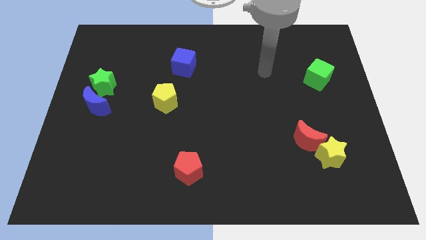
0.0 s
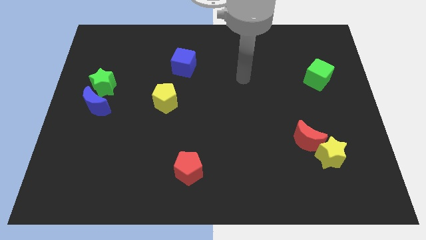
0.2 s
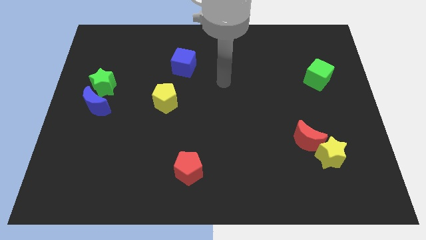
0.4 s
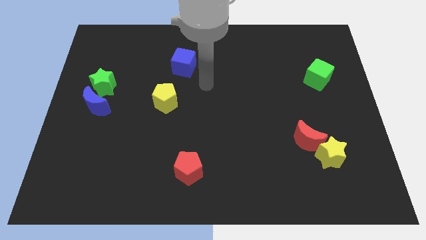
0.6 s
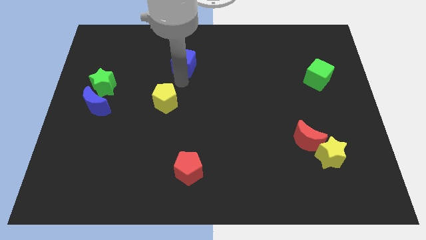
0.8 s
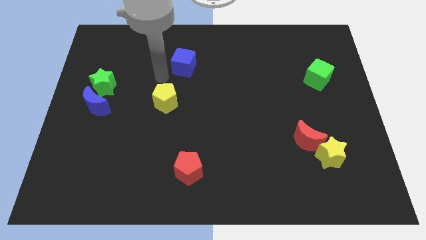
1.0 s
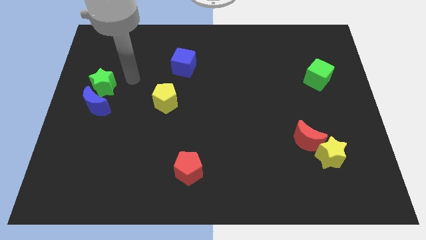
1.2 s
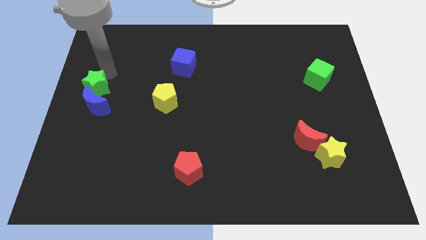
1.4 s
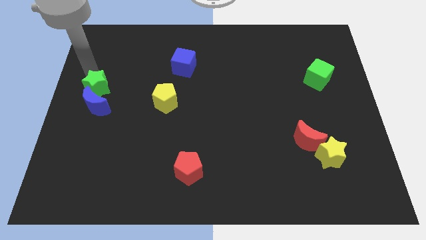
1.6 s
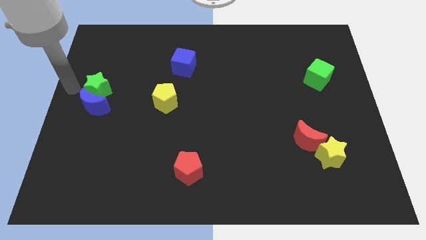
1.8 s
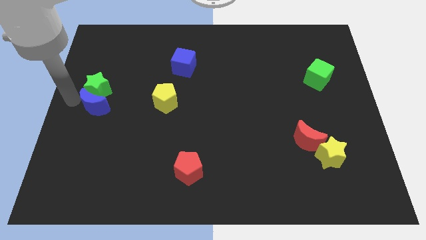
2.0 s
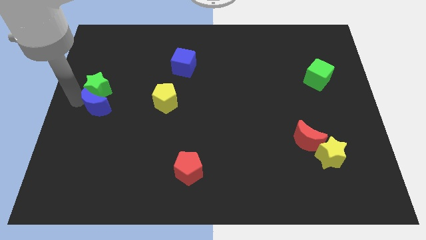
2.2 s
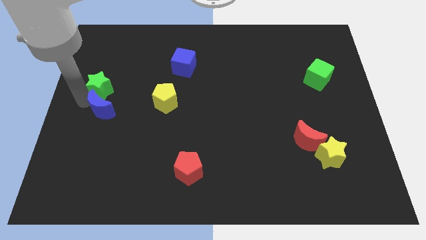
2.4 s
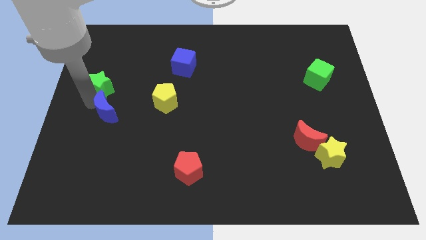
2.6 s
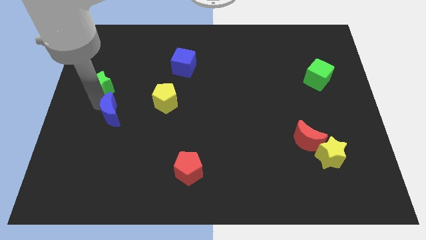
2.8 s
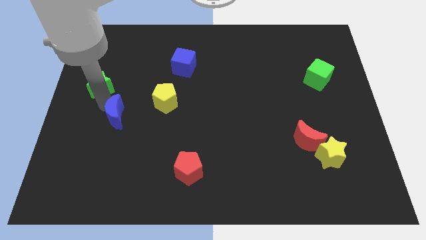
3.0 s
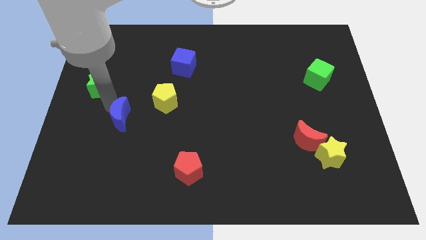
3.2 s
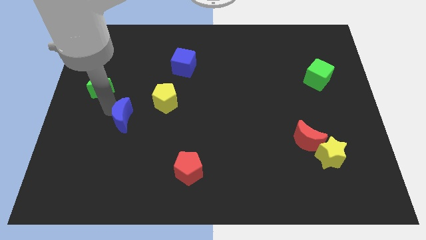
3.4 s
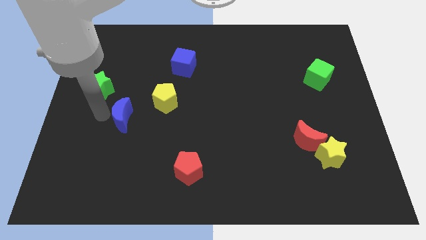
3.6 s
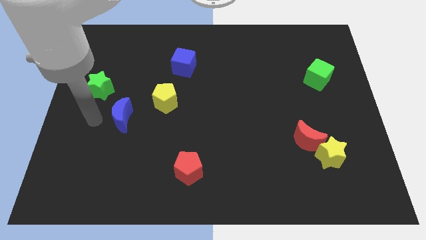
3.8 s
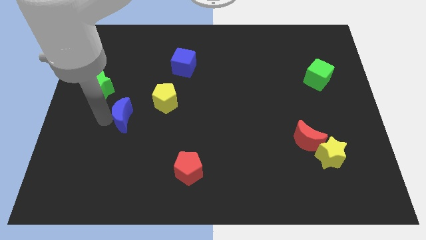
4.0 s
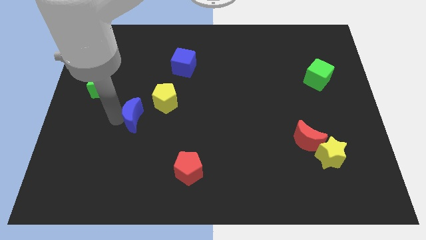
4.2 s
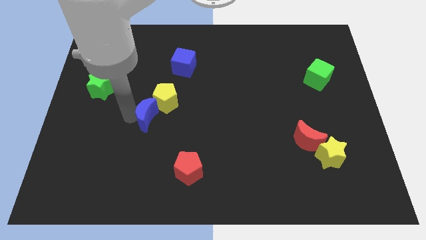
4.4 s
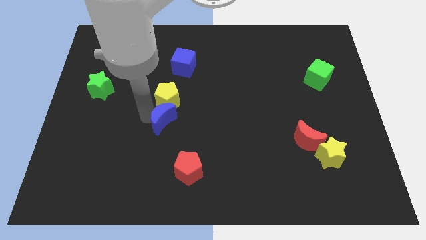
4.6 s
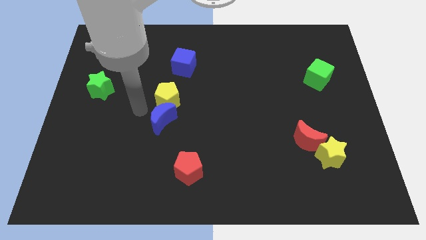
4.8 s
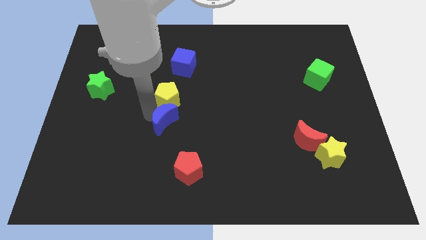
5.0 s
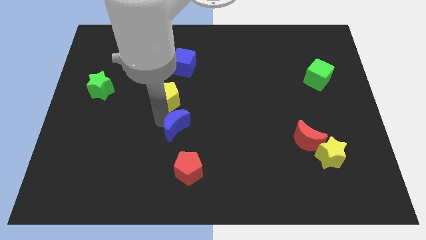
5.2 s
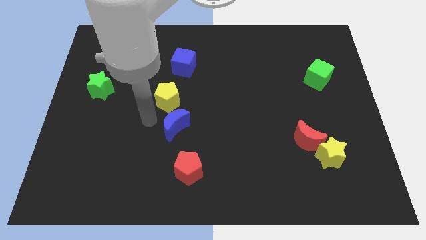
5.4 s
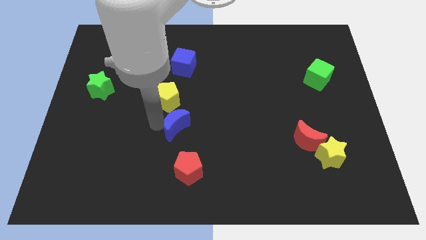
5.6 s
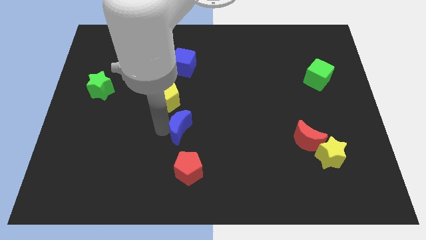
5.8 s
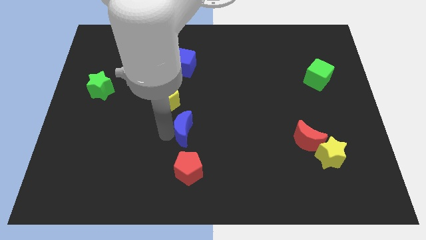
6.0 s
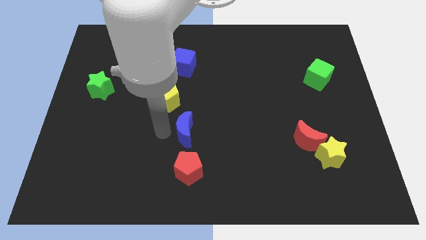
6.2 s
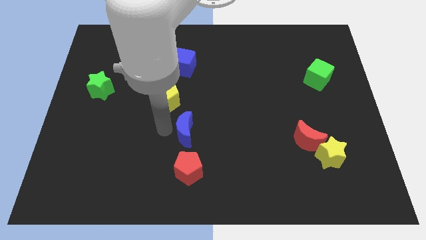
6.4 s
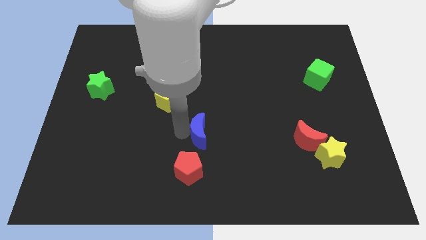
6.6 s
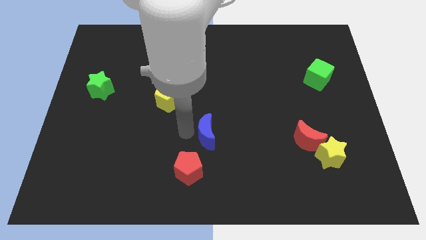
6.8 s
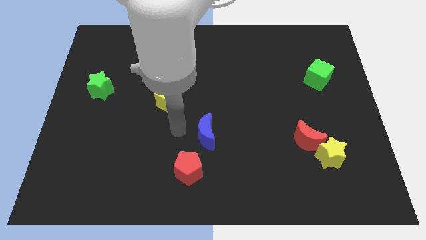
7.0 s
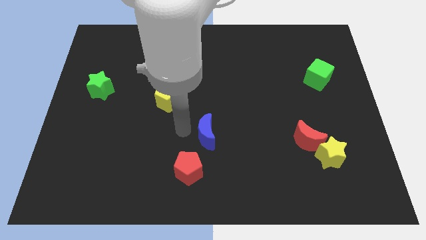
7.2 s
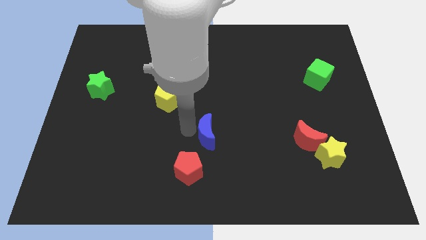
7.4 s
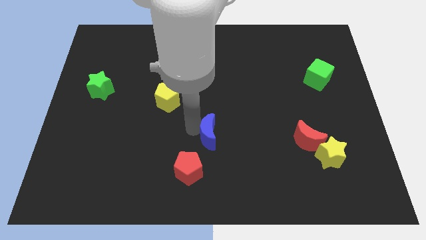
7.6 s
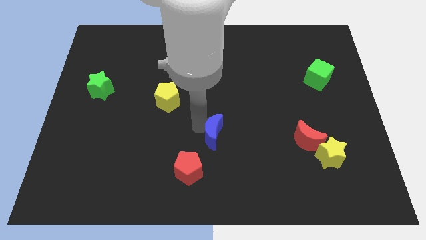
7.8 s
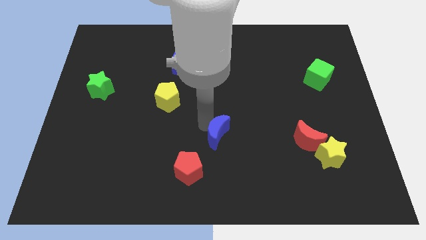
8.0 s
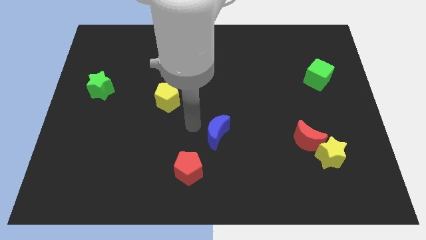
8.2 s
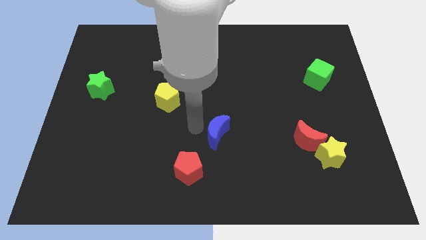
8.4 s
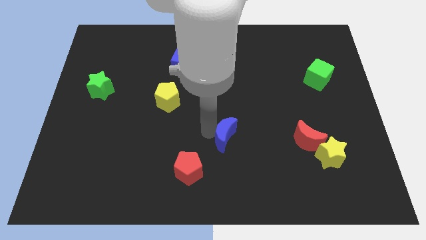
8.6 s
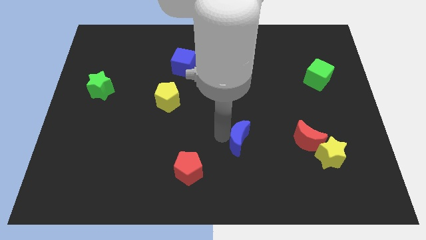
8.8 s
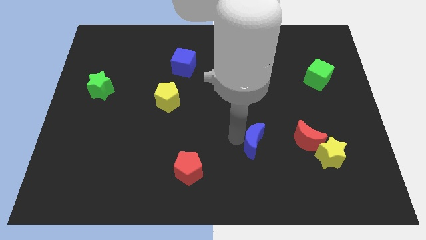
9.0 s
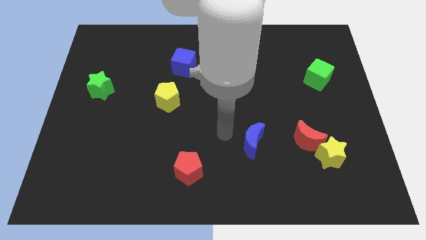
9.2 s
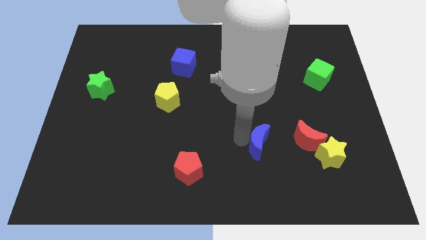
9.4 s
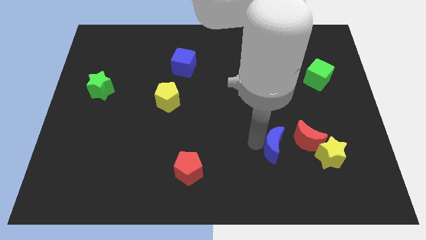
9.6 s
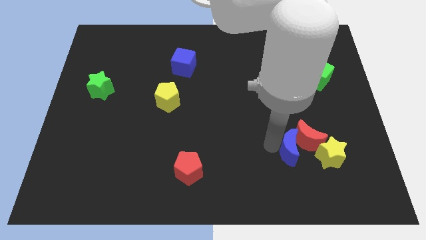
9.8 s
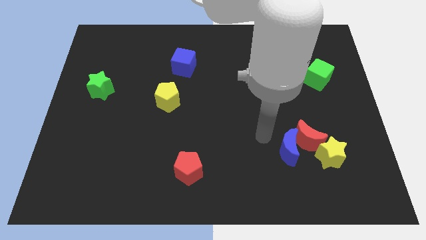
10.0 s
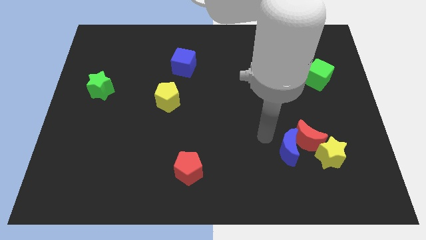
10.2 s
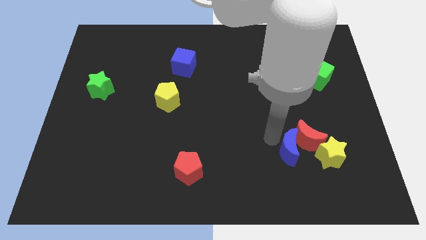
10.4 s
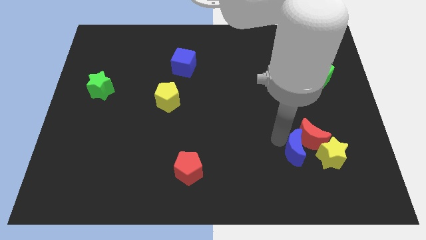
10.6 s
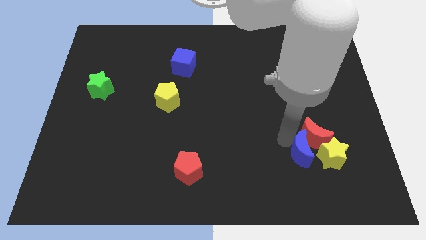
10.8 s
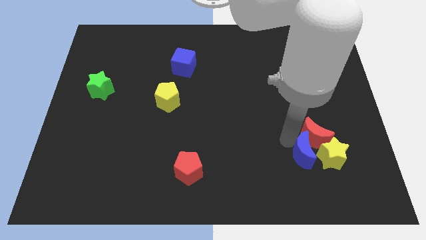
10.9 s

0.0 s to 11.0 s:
slide the blue moon next to the yellow star
